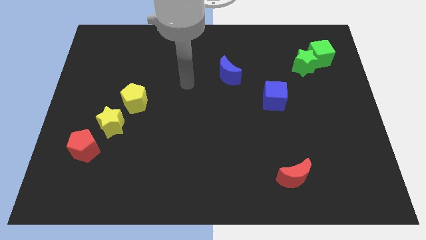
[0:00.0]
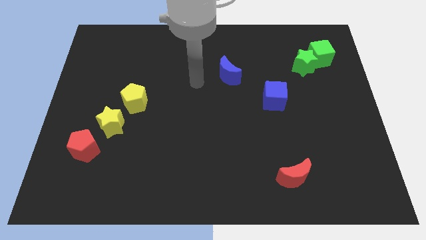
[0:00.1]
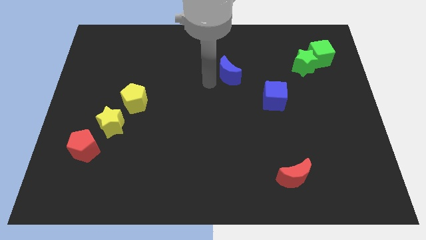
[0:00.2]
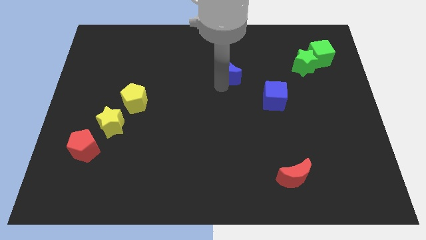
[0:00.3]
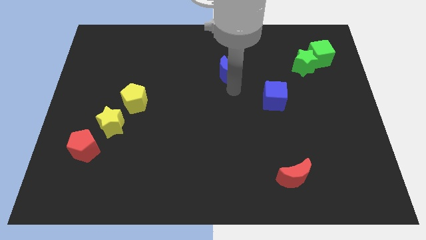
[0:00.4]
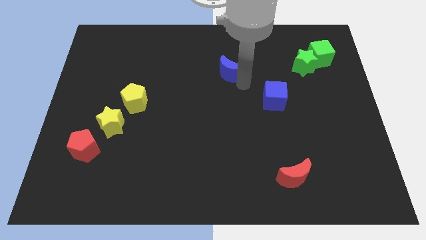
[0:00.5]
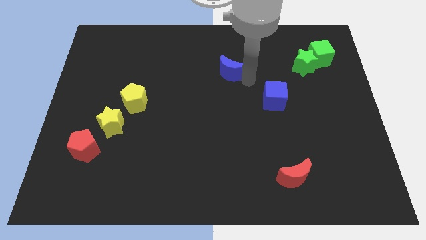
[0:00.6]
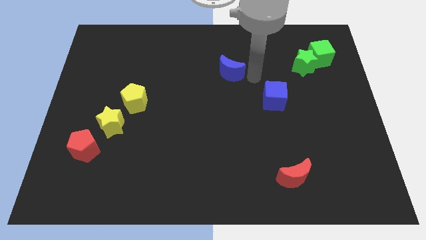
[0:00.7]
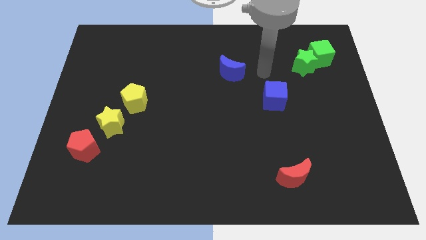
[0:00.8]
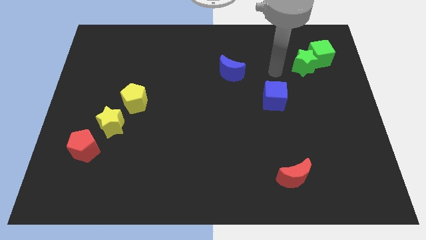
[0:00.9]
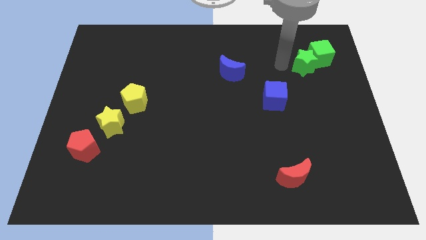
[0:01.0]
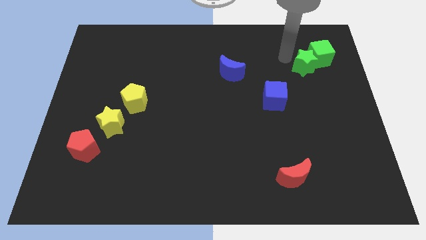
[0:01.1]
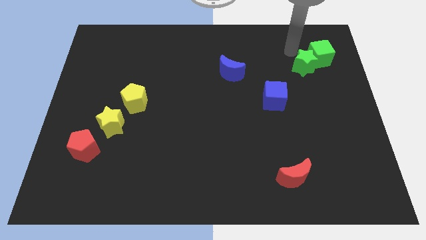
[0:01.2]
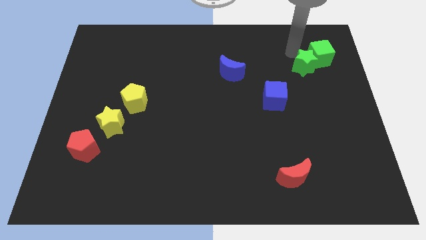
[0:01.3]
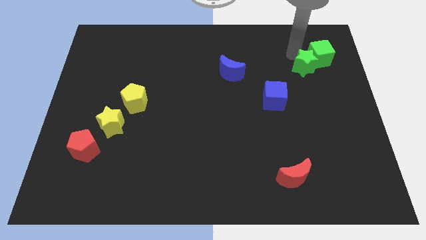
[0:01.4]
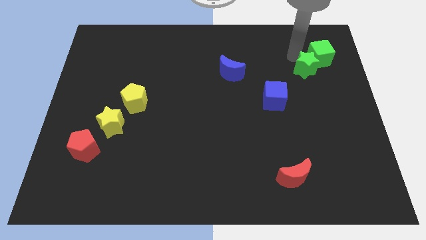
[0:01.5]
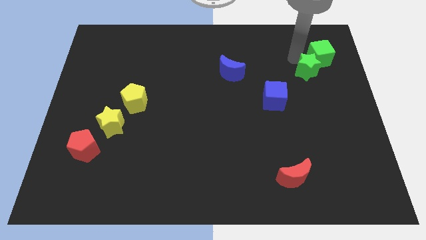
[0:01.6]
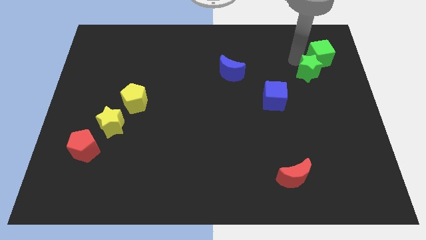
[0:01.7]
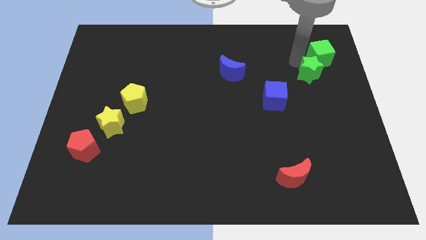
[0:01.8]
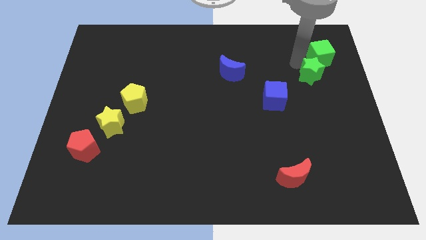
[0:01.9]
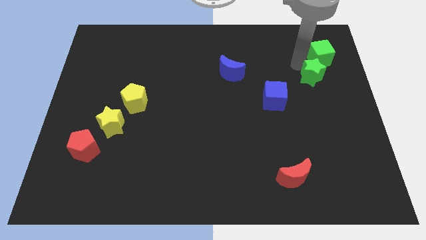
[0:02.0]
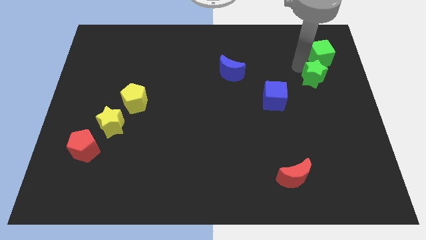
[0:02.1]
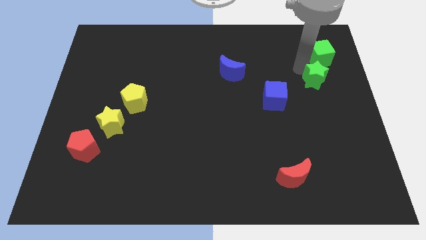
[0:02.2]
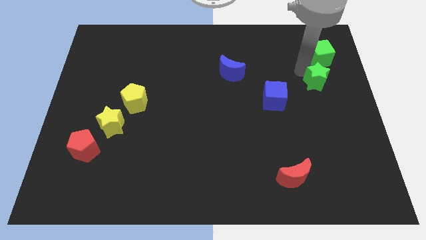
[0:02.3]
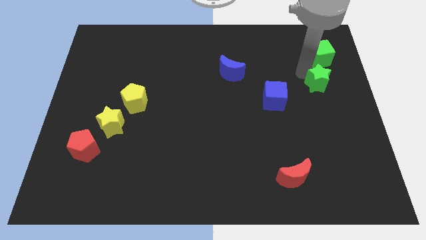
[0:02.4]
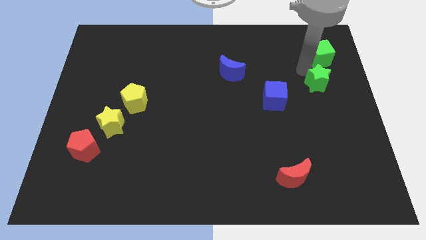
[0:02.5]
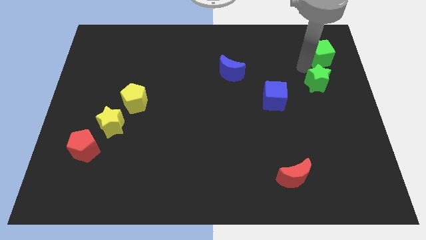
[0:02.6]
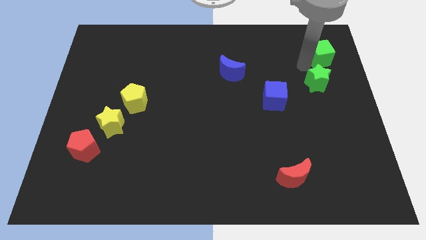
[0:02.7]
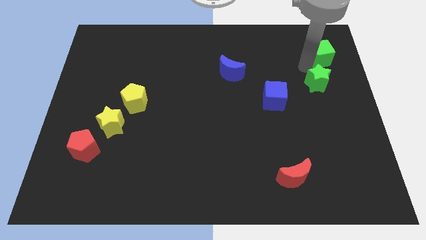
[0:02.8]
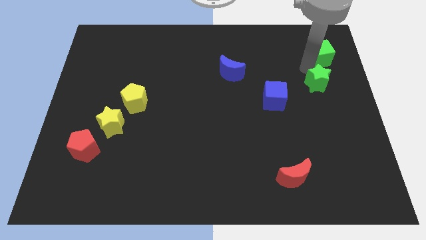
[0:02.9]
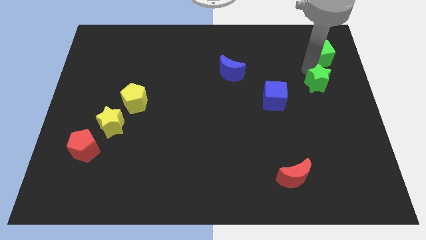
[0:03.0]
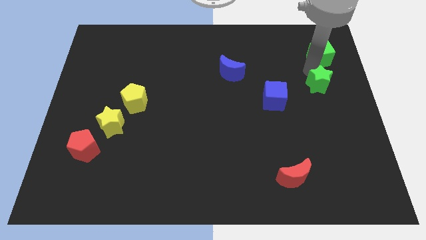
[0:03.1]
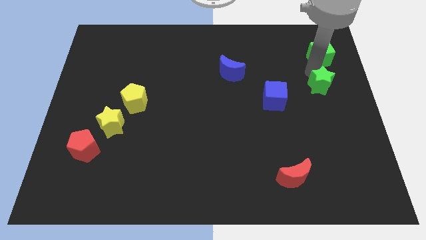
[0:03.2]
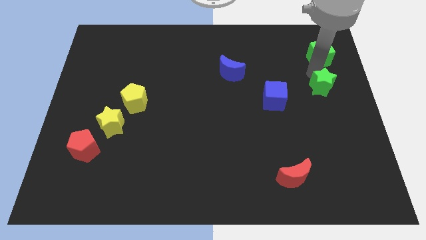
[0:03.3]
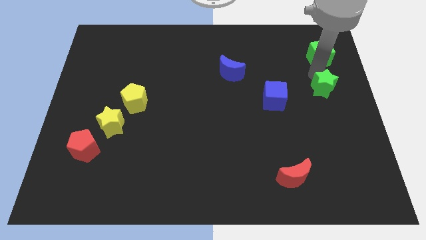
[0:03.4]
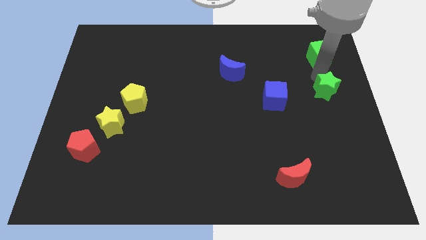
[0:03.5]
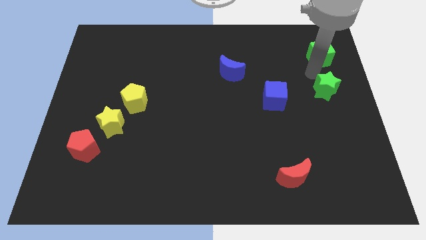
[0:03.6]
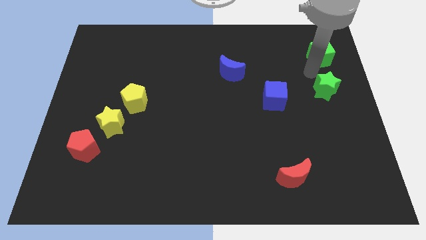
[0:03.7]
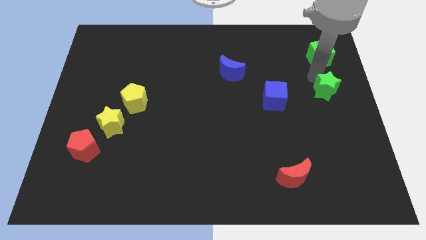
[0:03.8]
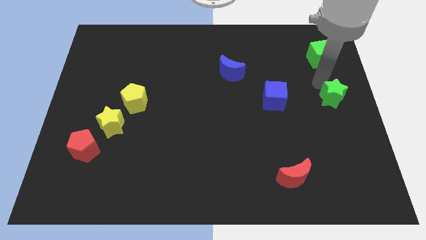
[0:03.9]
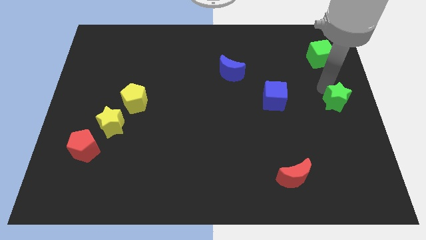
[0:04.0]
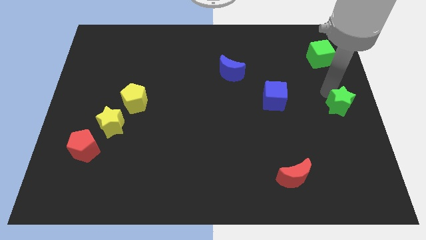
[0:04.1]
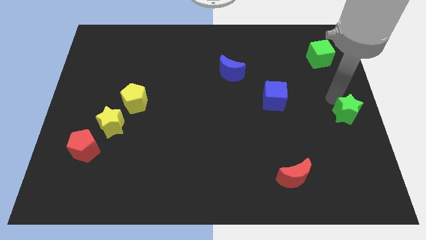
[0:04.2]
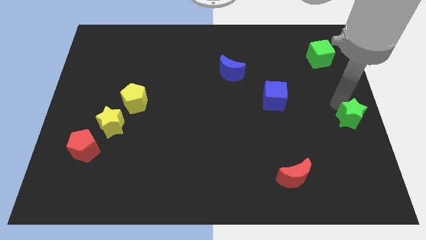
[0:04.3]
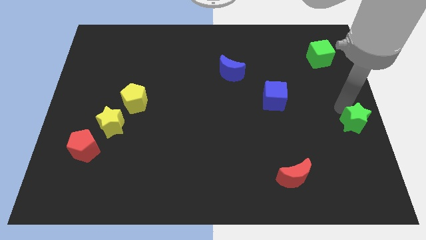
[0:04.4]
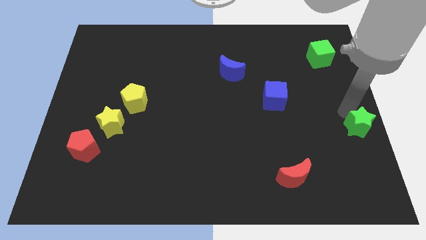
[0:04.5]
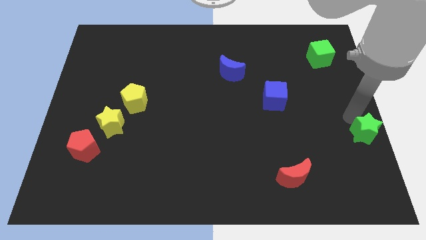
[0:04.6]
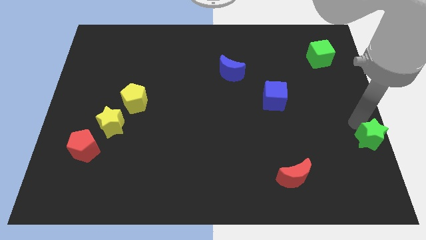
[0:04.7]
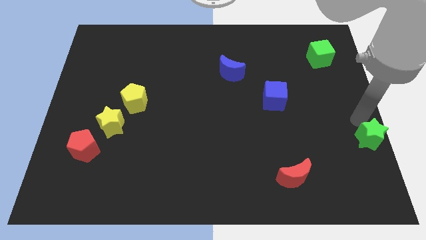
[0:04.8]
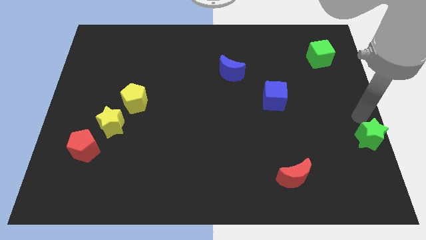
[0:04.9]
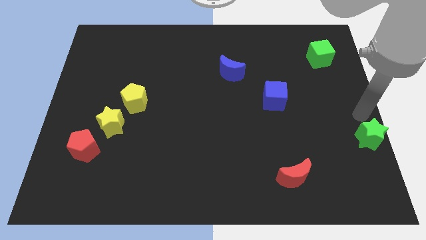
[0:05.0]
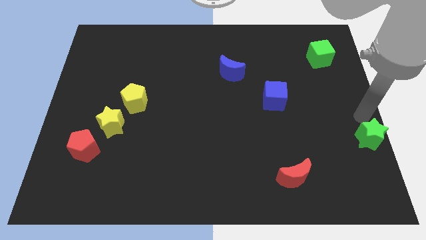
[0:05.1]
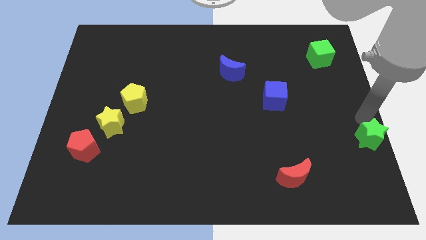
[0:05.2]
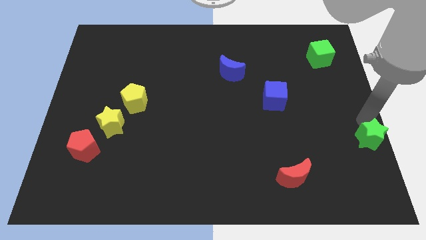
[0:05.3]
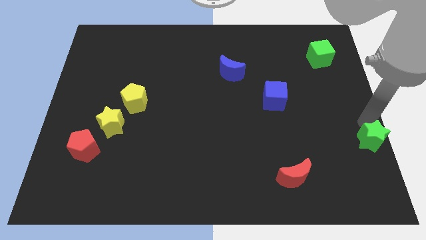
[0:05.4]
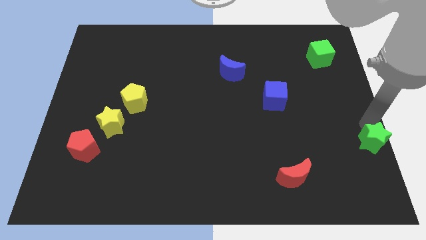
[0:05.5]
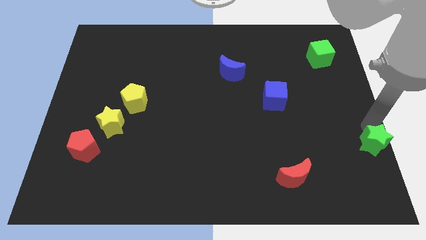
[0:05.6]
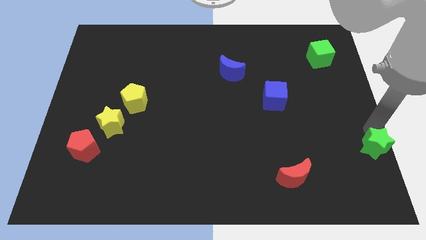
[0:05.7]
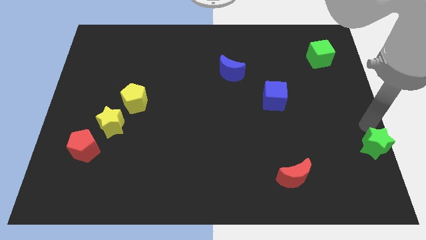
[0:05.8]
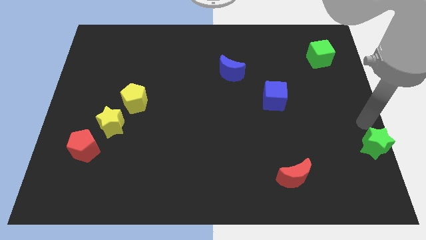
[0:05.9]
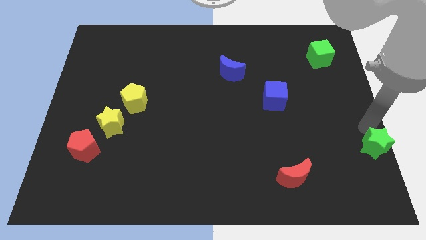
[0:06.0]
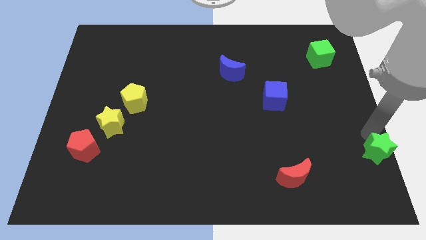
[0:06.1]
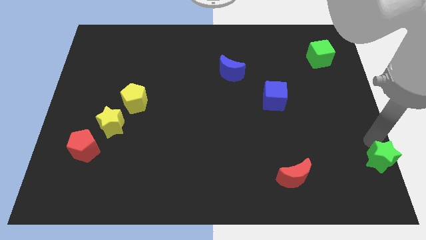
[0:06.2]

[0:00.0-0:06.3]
slide the green star to the bottom right
